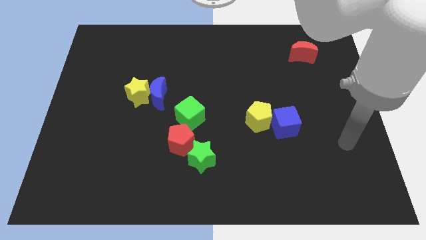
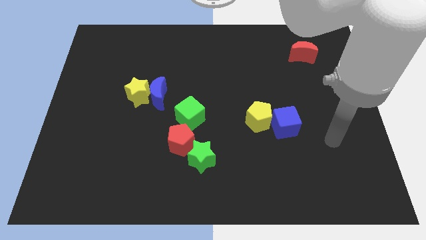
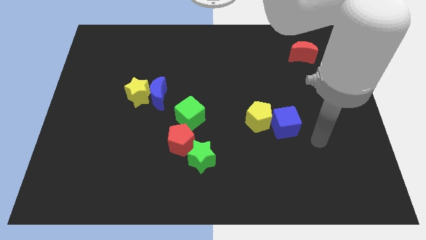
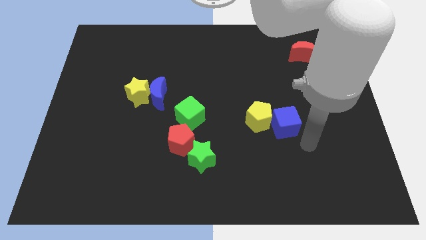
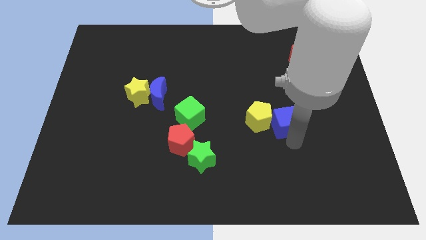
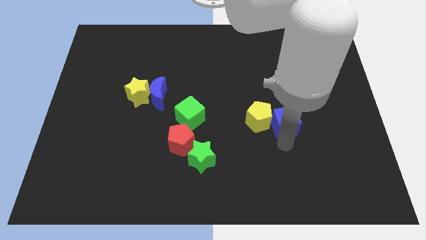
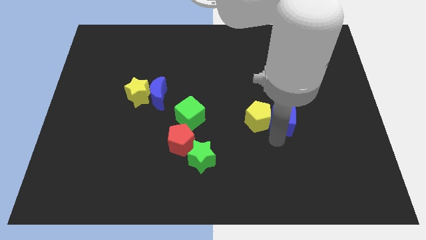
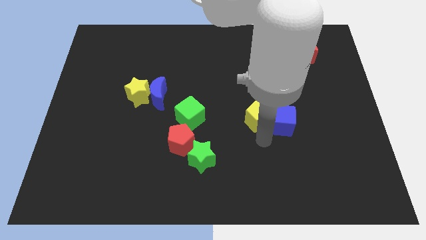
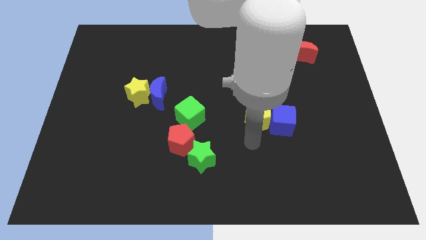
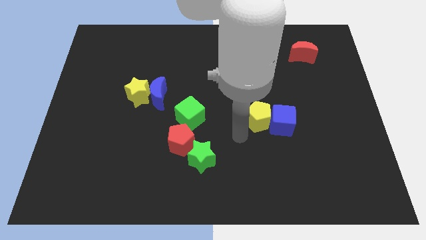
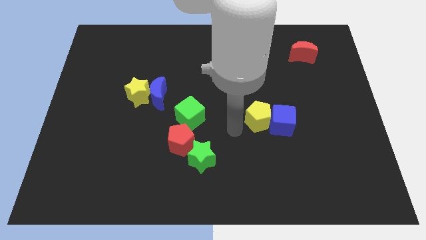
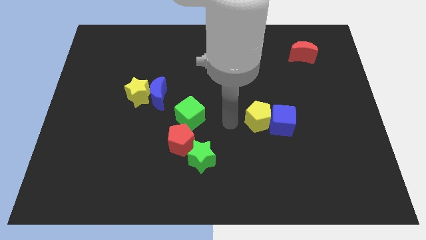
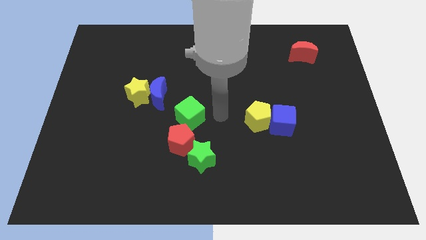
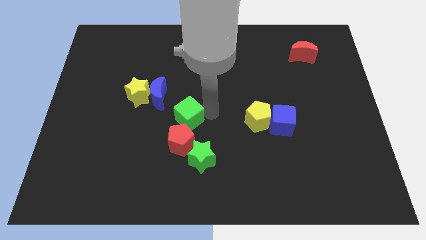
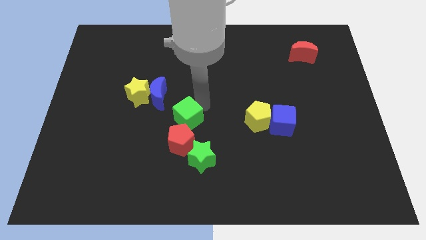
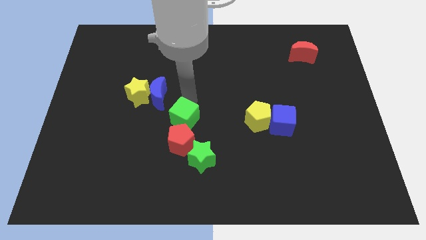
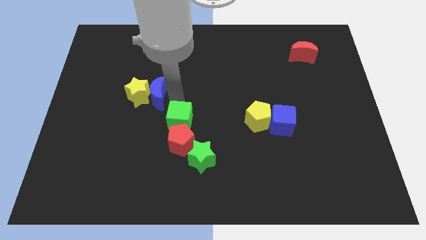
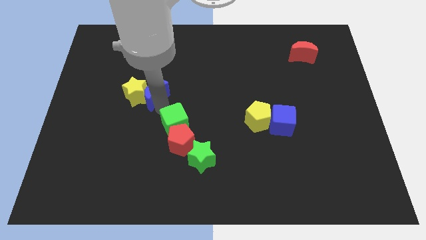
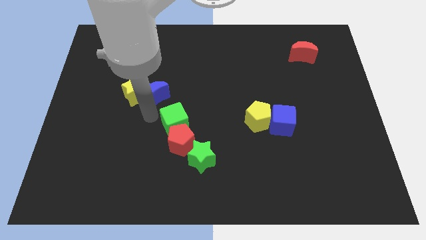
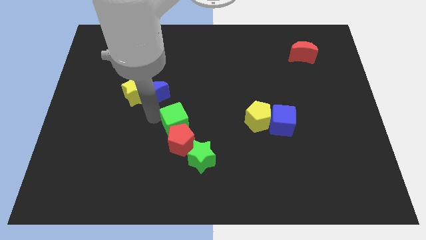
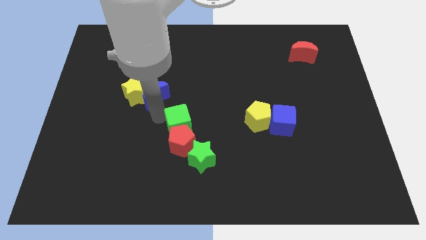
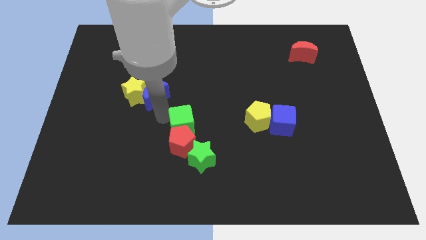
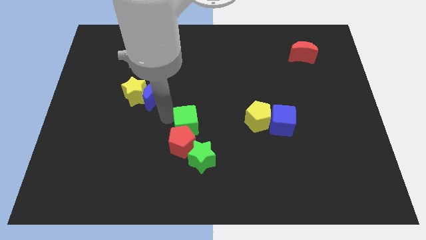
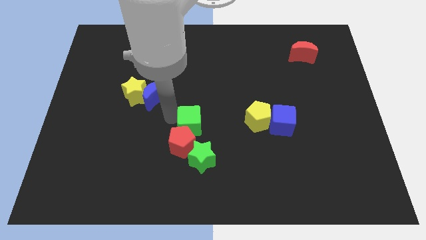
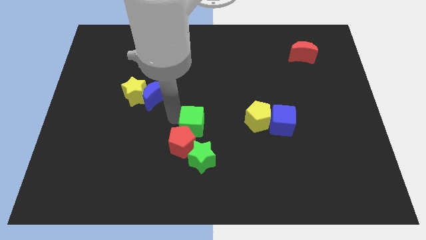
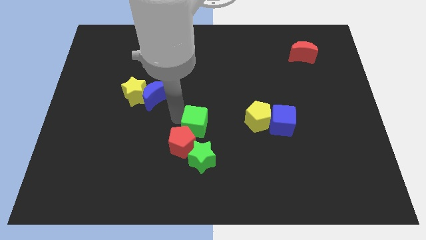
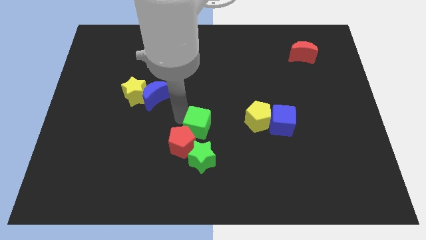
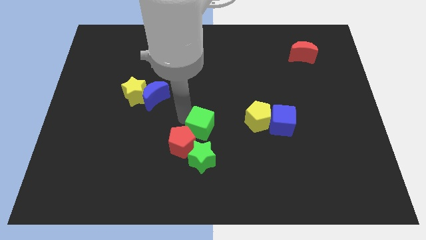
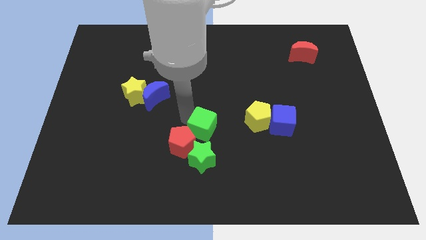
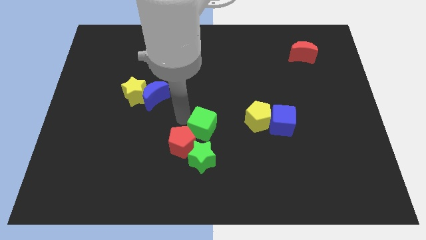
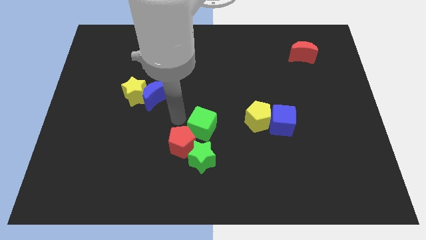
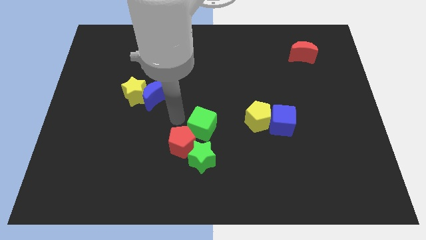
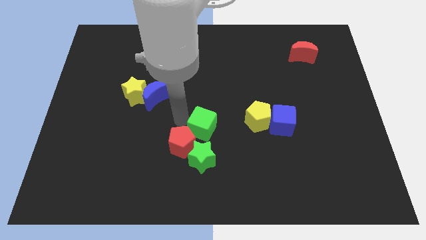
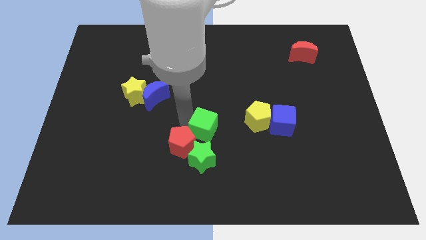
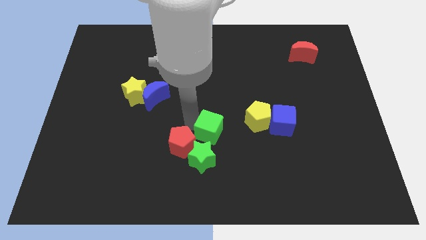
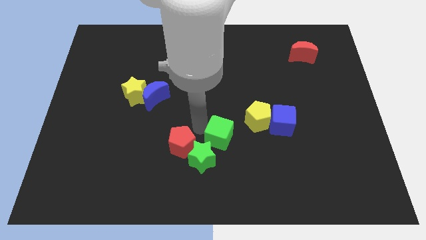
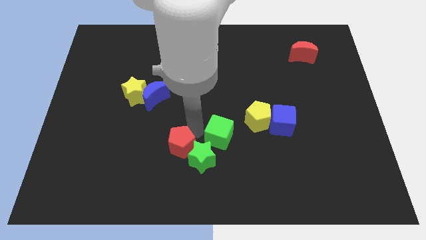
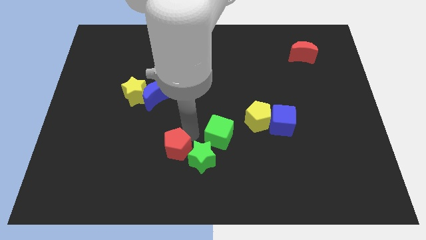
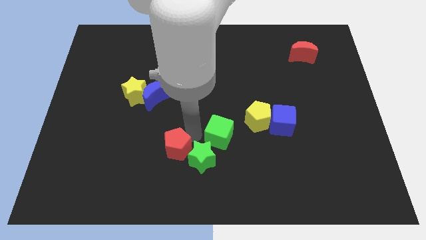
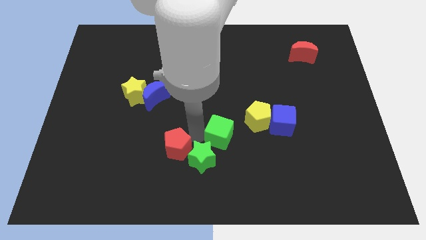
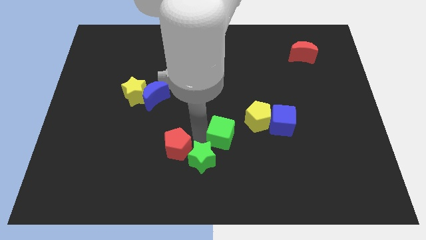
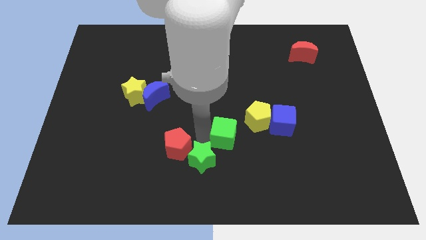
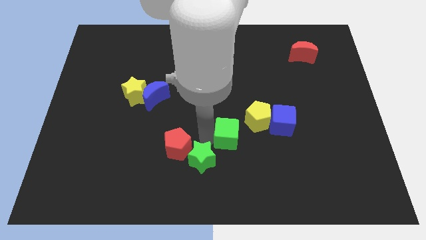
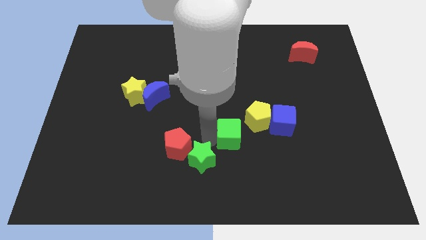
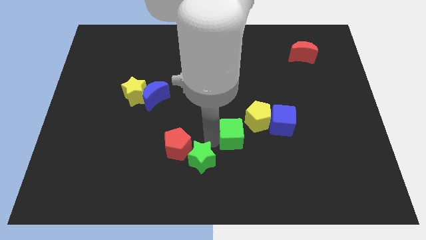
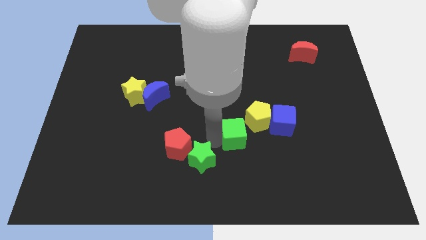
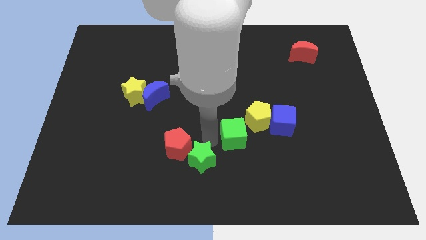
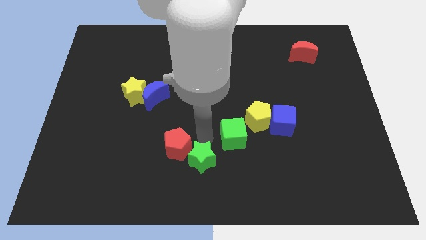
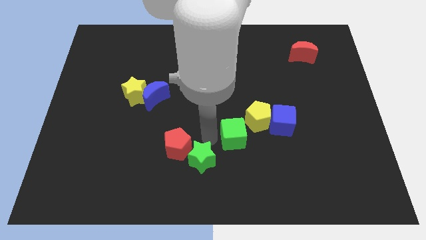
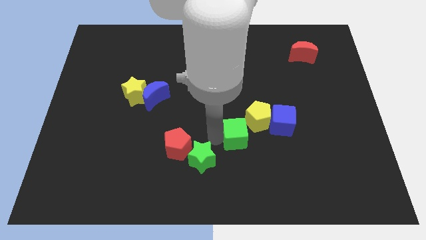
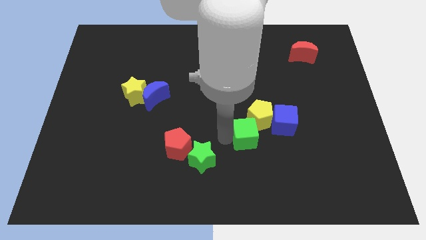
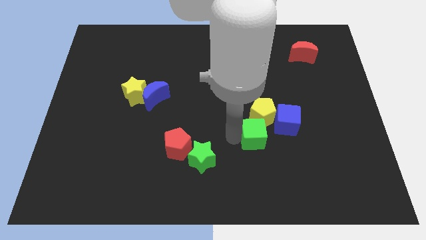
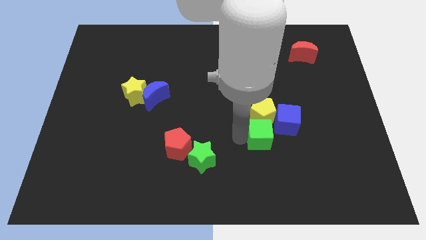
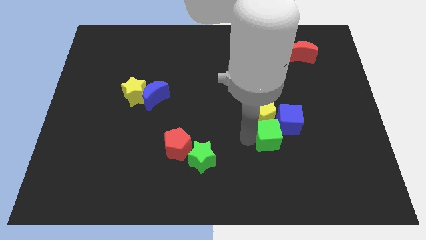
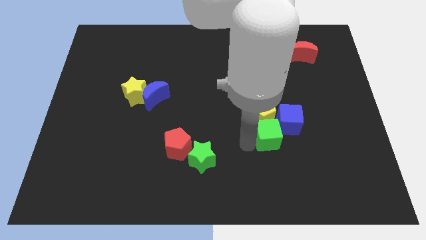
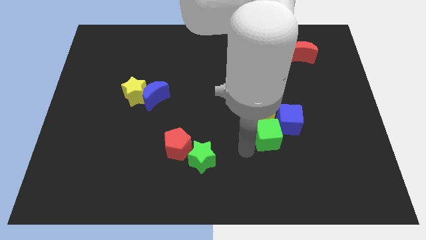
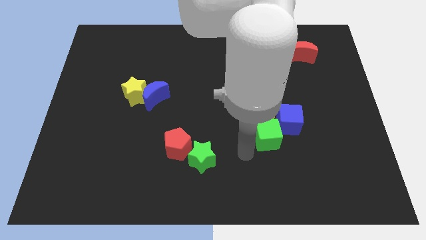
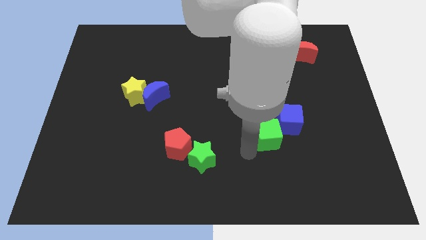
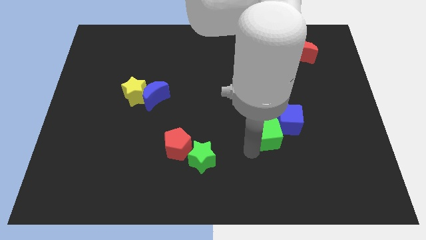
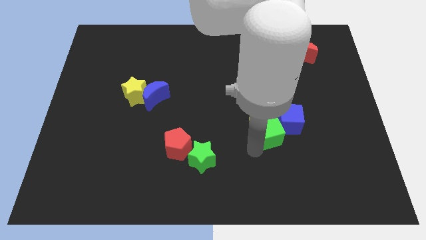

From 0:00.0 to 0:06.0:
slide the green cube to the blue cube

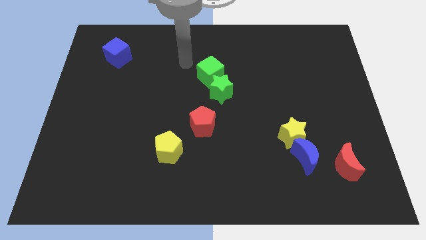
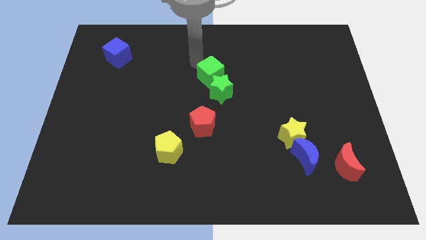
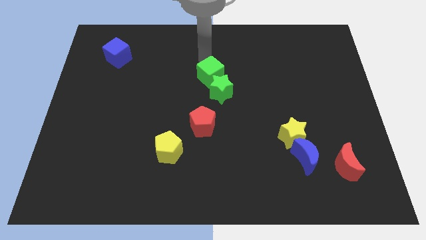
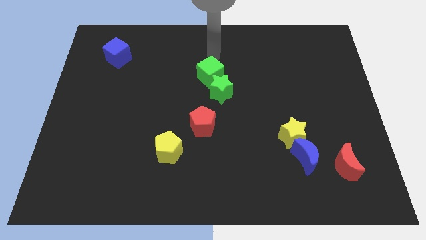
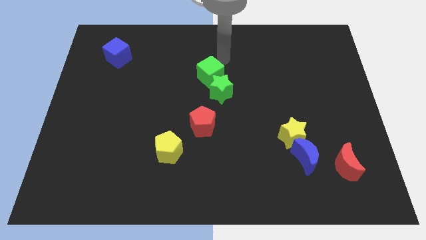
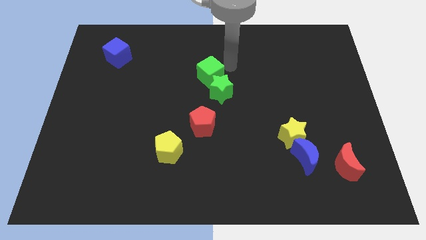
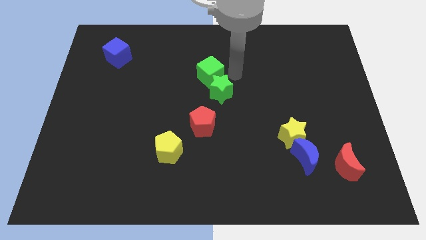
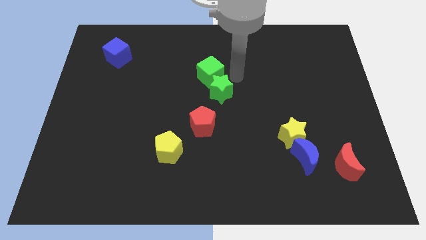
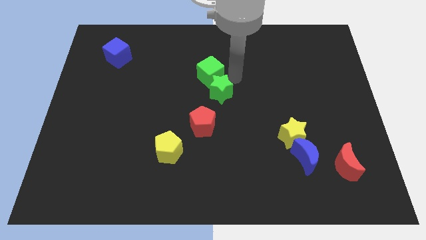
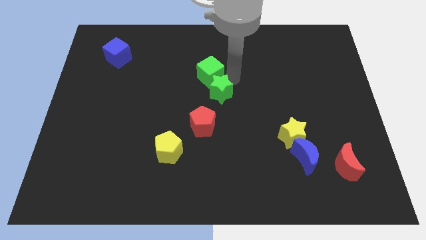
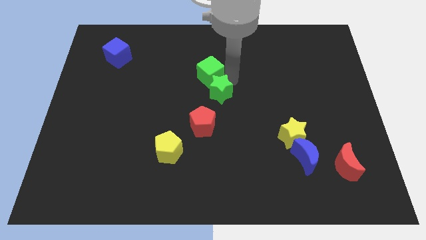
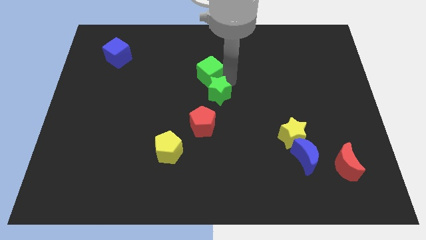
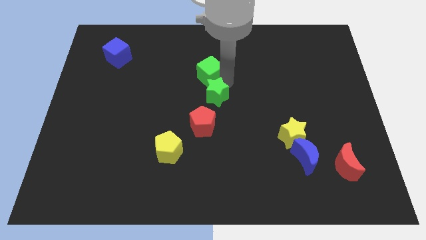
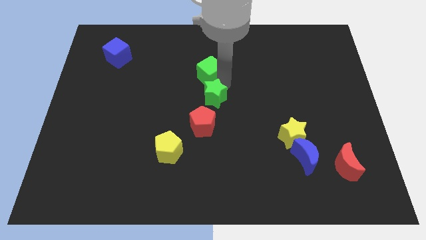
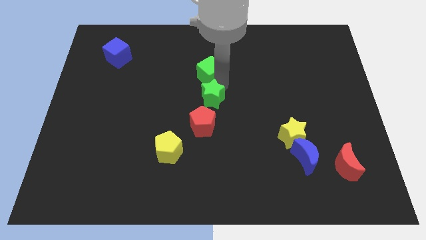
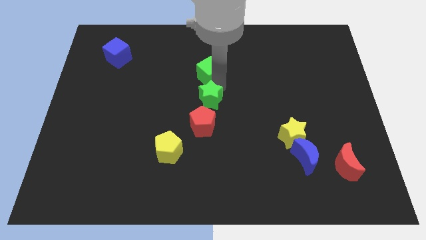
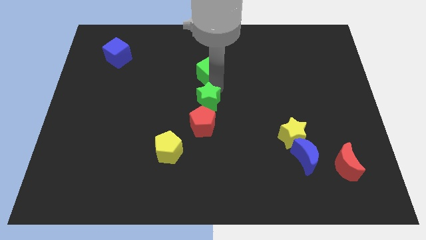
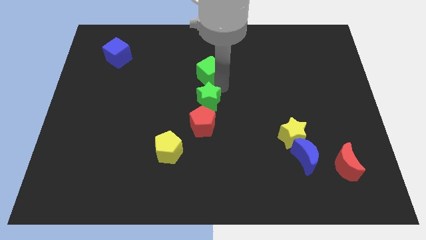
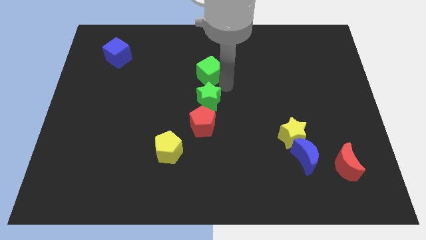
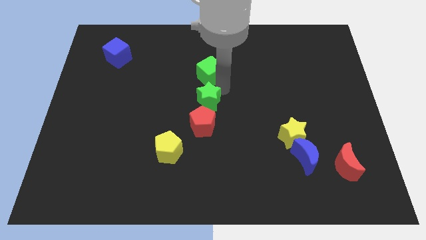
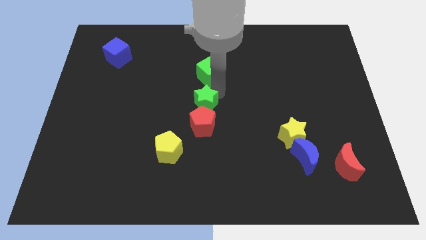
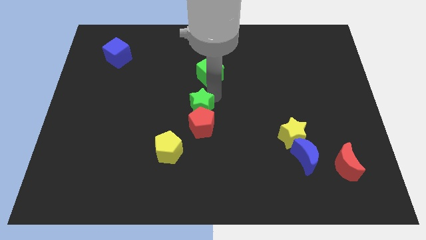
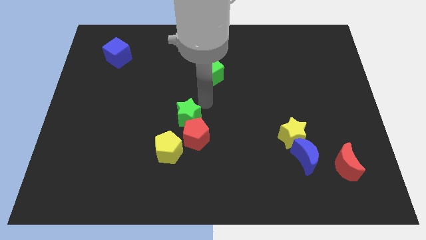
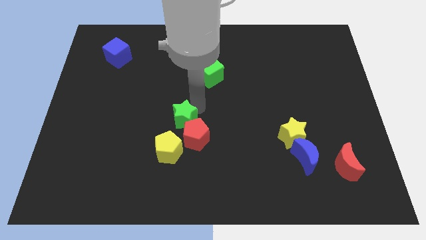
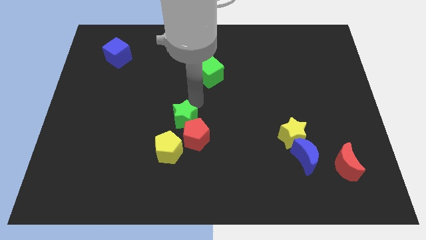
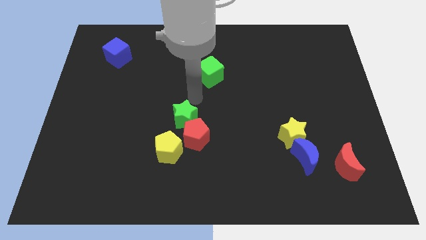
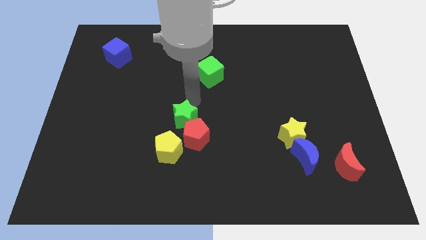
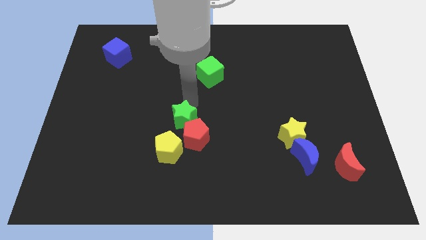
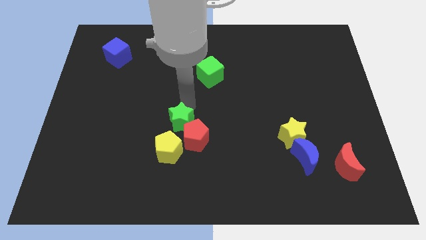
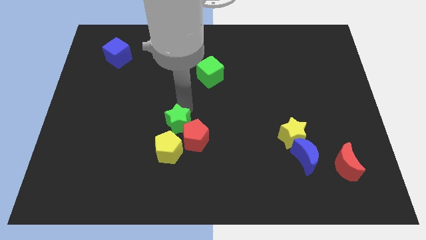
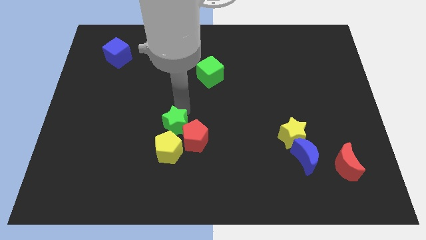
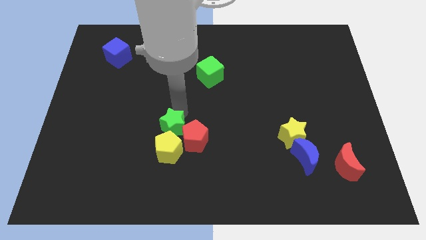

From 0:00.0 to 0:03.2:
slide the green star towards the yellow pentagon
